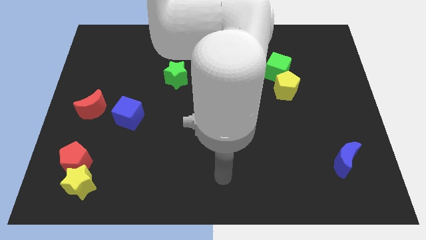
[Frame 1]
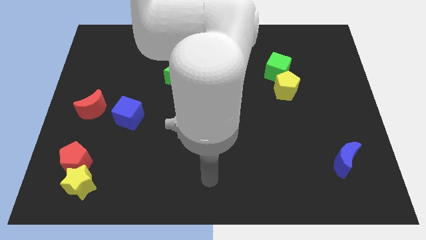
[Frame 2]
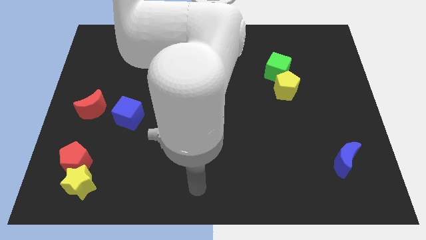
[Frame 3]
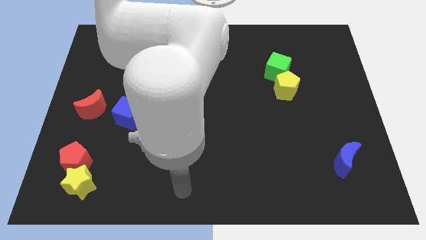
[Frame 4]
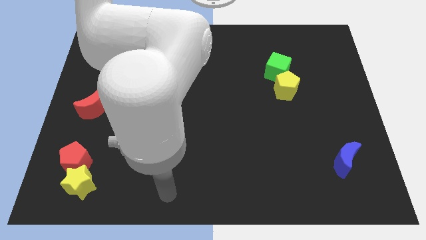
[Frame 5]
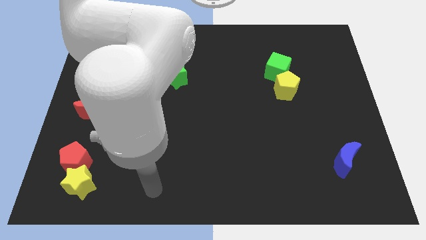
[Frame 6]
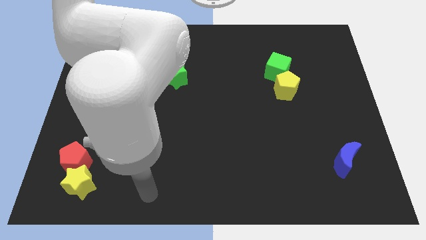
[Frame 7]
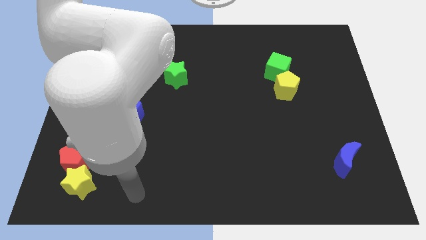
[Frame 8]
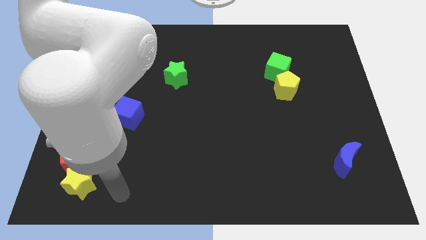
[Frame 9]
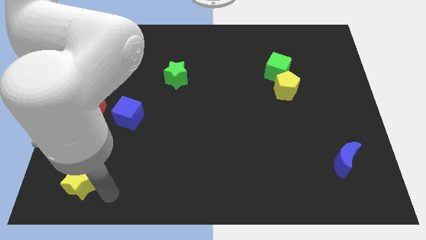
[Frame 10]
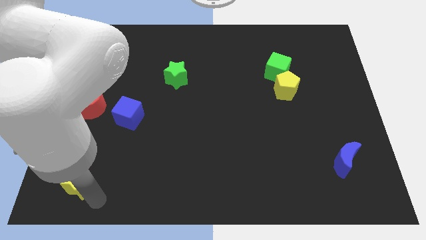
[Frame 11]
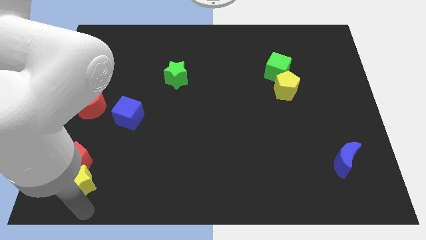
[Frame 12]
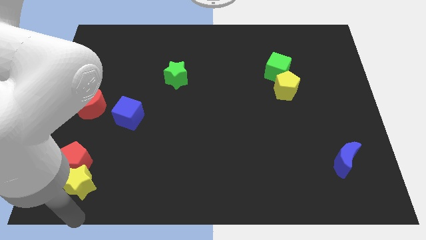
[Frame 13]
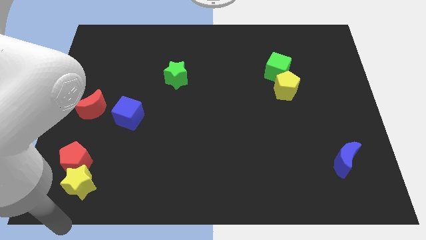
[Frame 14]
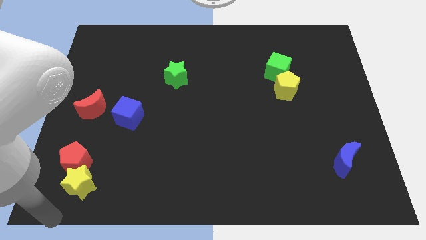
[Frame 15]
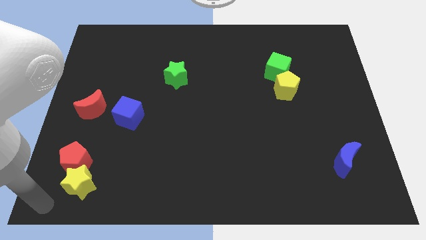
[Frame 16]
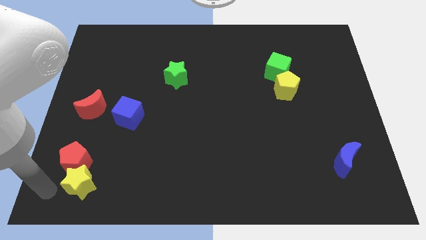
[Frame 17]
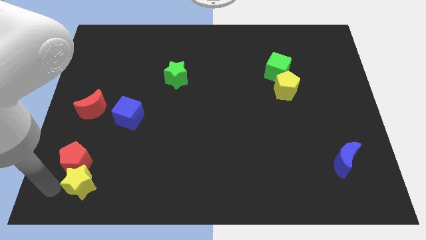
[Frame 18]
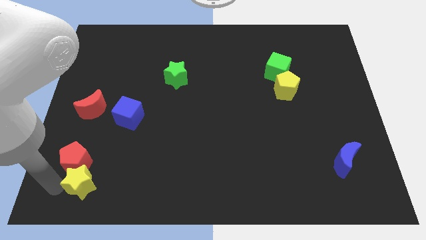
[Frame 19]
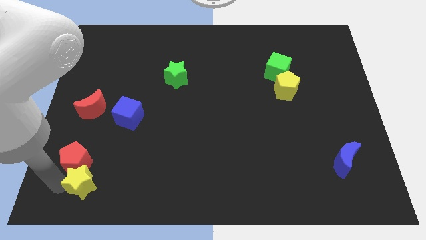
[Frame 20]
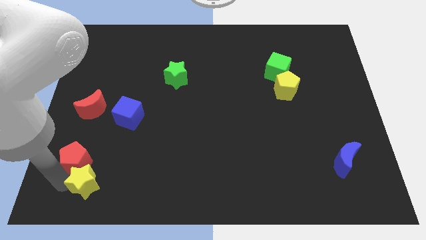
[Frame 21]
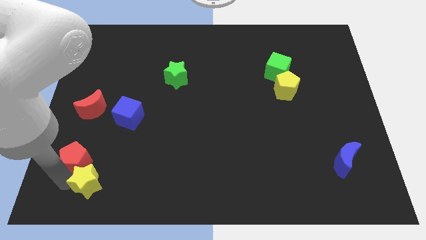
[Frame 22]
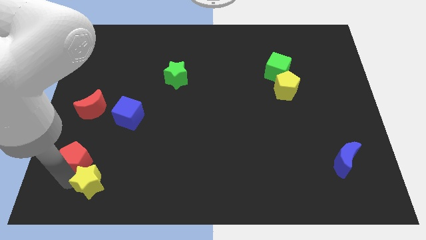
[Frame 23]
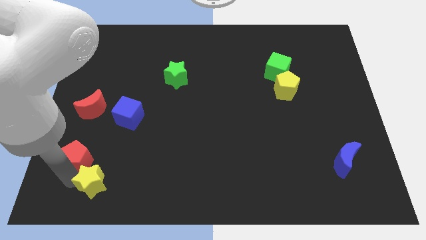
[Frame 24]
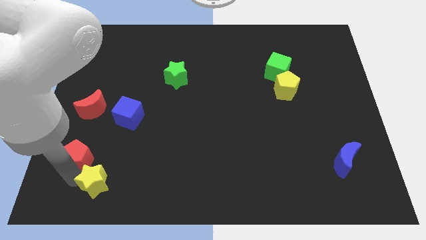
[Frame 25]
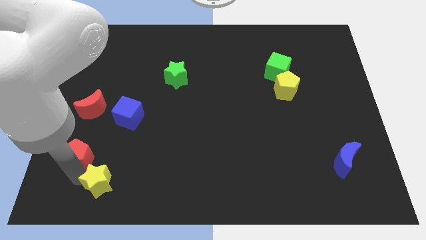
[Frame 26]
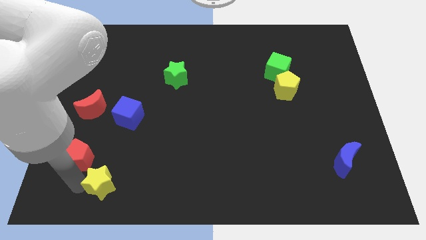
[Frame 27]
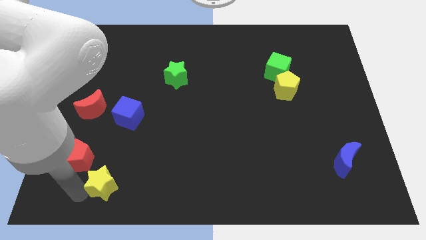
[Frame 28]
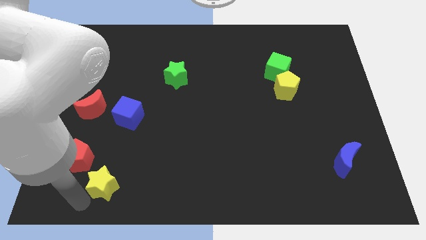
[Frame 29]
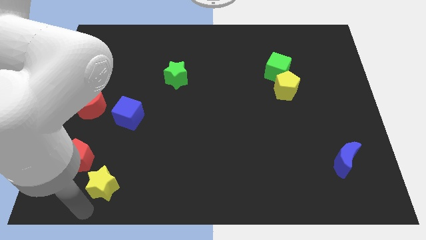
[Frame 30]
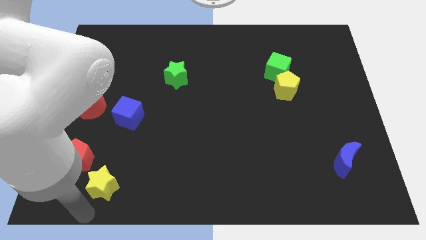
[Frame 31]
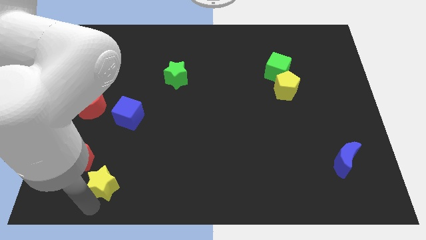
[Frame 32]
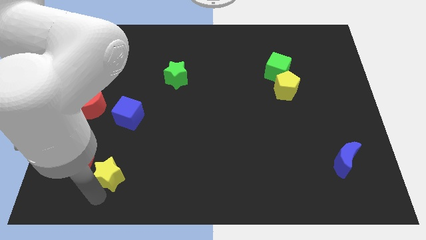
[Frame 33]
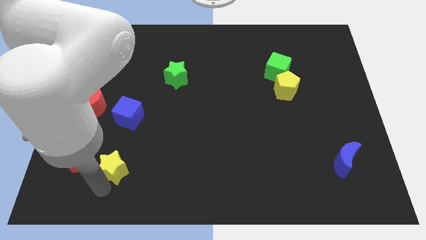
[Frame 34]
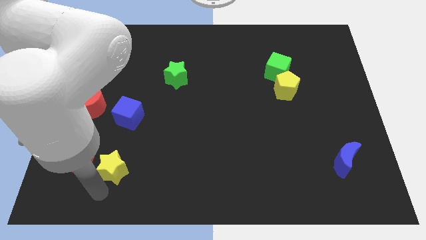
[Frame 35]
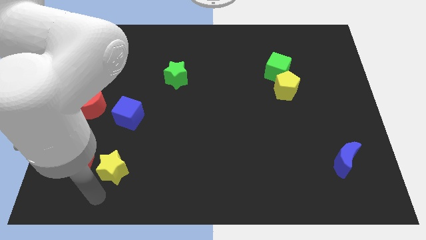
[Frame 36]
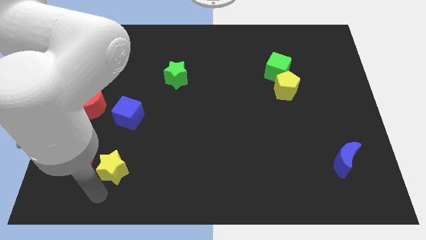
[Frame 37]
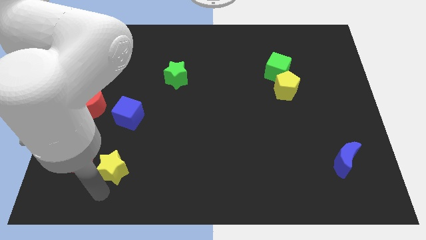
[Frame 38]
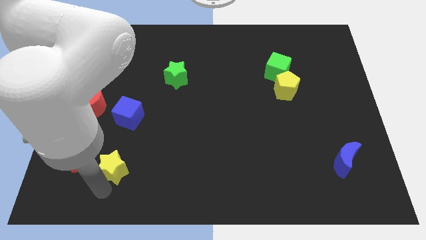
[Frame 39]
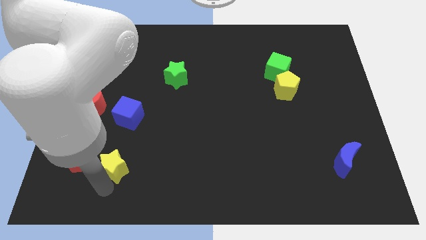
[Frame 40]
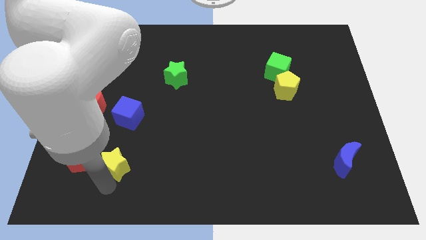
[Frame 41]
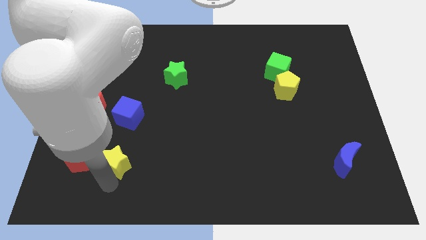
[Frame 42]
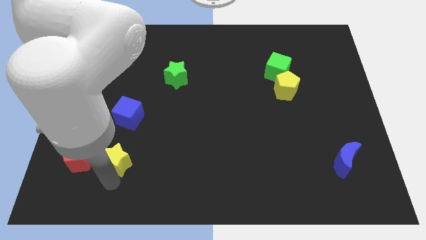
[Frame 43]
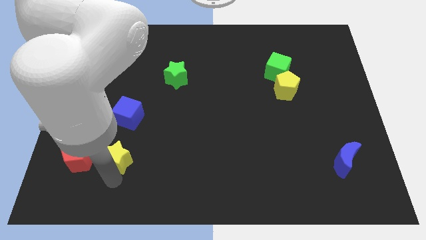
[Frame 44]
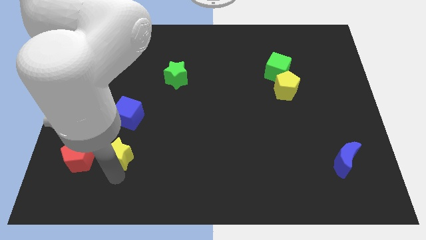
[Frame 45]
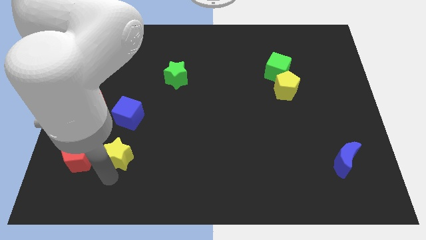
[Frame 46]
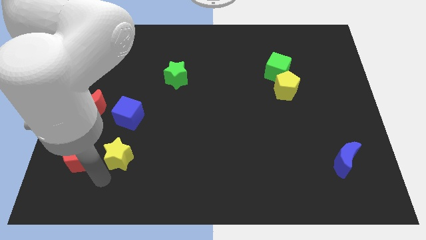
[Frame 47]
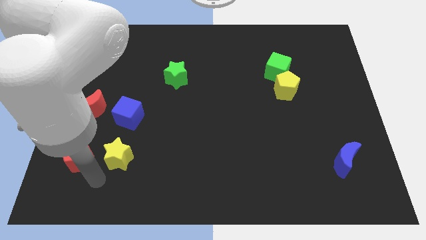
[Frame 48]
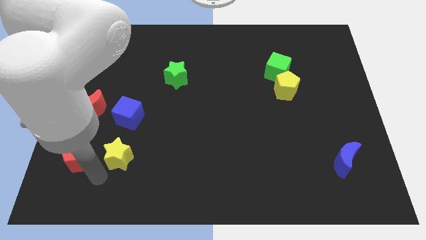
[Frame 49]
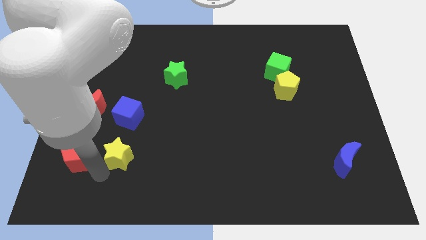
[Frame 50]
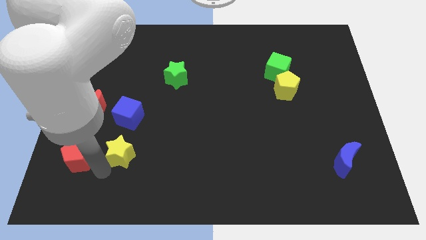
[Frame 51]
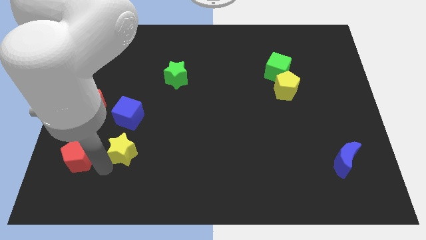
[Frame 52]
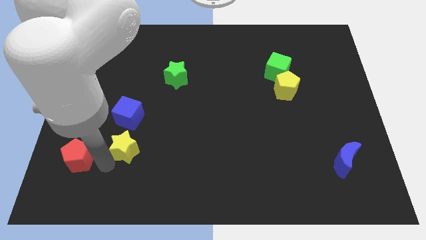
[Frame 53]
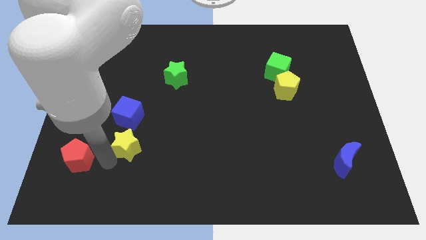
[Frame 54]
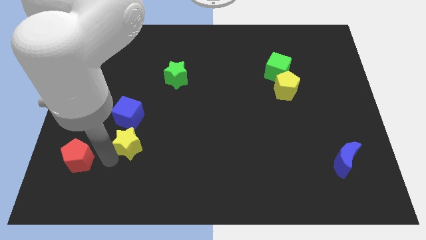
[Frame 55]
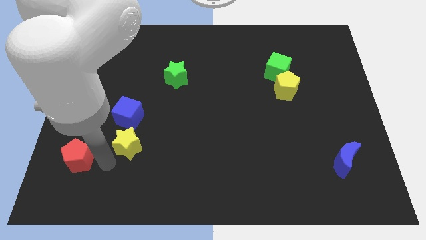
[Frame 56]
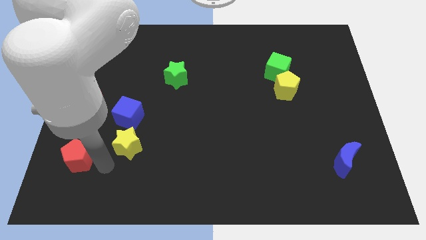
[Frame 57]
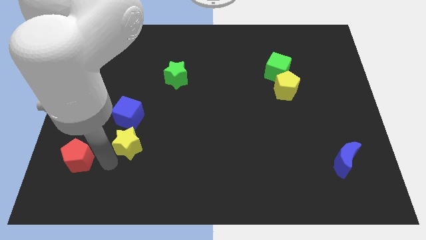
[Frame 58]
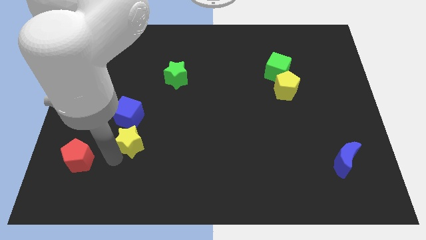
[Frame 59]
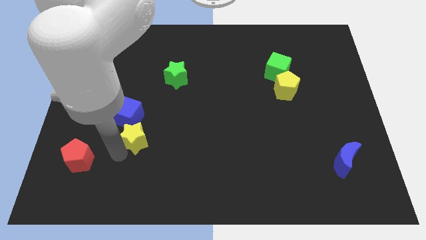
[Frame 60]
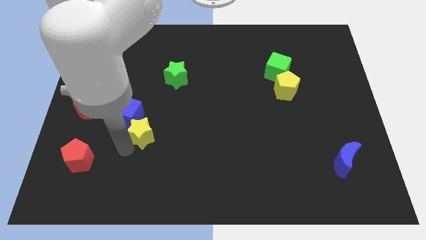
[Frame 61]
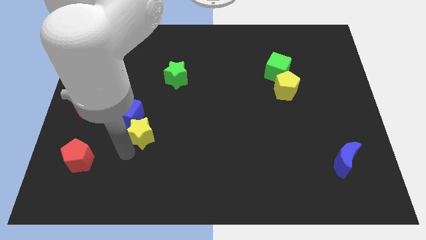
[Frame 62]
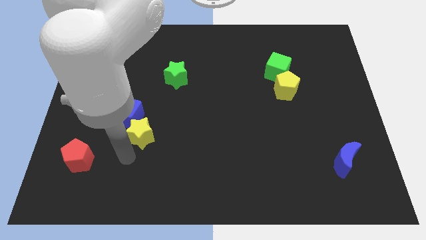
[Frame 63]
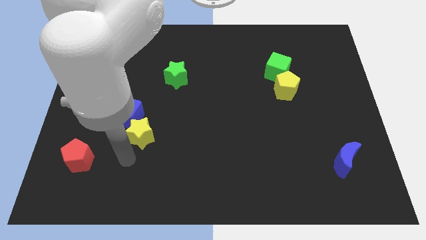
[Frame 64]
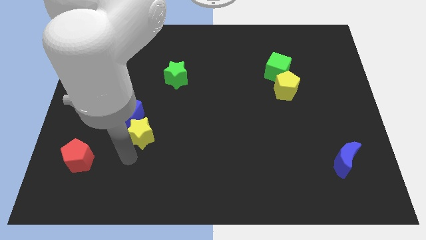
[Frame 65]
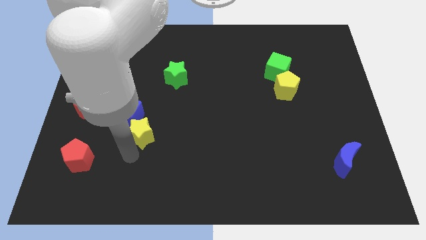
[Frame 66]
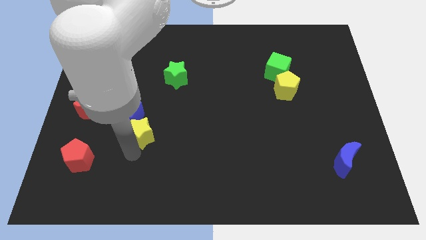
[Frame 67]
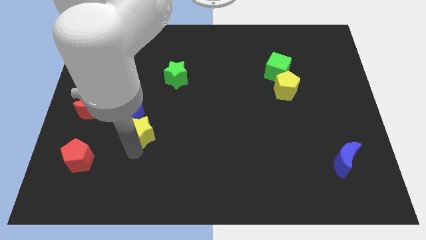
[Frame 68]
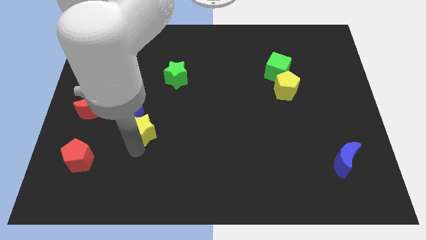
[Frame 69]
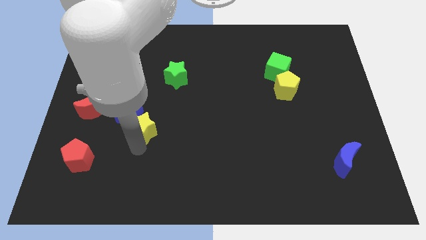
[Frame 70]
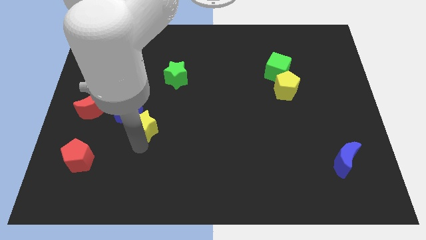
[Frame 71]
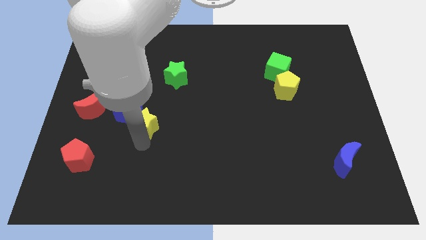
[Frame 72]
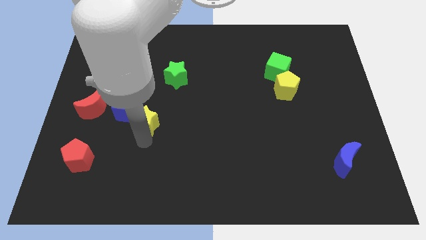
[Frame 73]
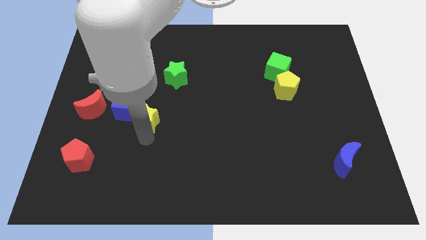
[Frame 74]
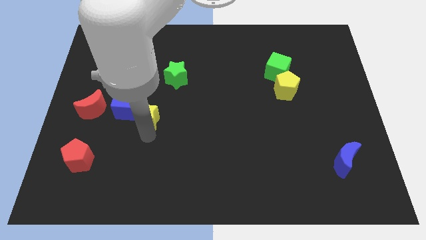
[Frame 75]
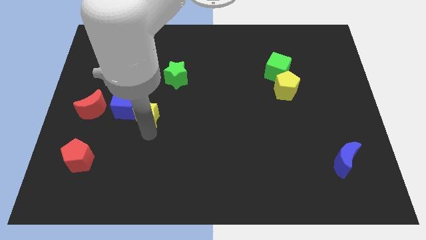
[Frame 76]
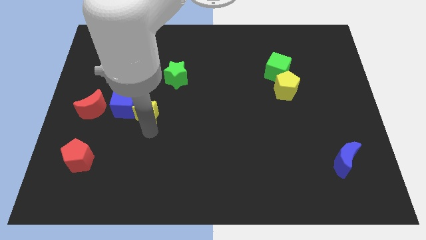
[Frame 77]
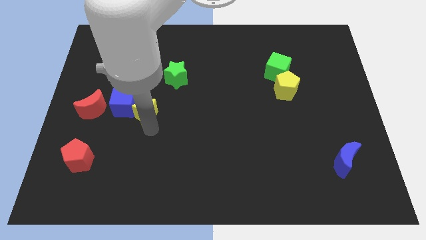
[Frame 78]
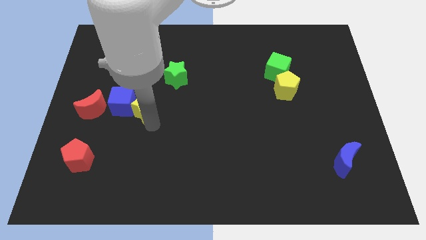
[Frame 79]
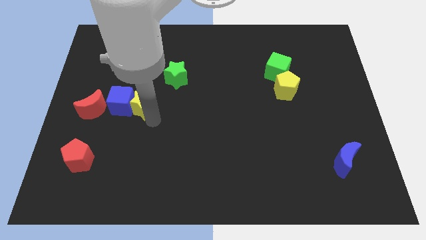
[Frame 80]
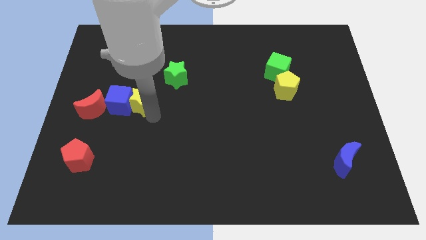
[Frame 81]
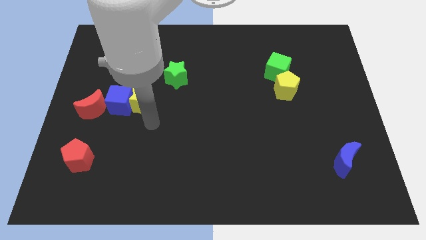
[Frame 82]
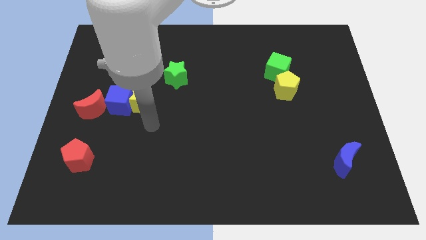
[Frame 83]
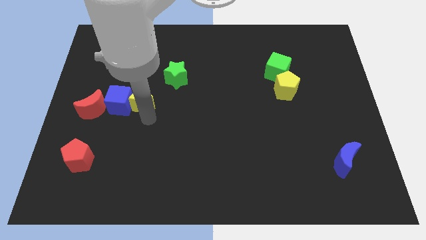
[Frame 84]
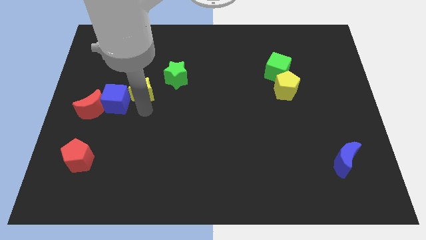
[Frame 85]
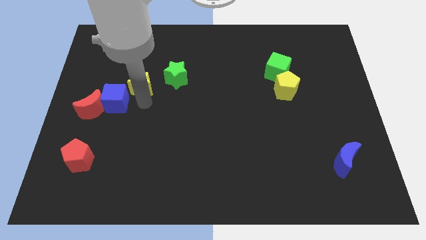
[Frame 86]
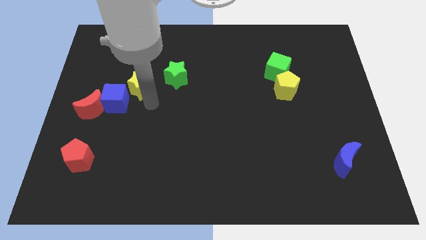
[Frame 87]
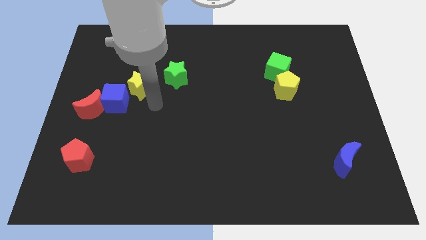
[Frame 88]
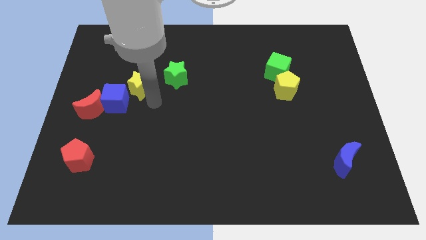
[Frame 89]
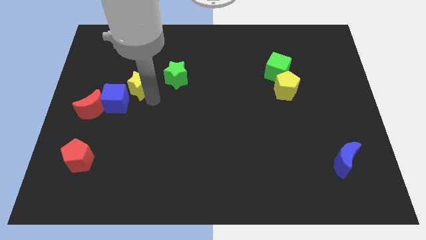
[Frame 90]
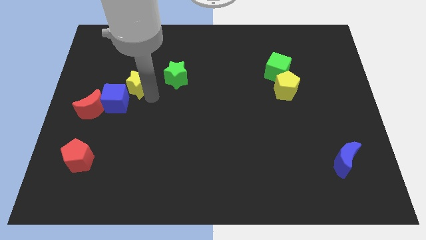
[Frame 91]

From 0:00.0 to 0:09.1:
put the yellow star to the top side of the blue cube
